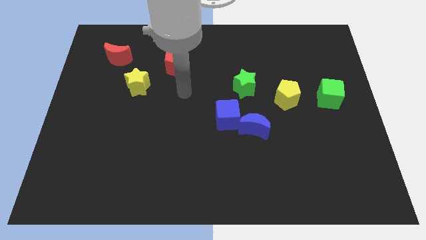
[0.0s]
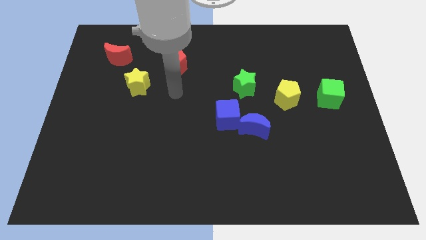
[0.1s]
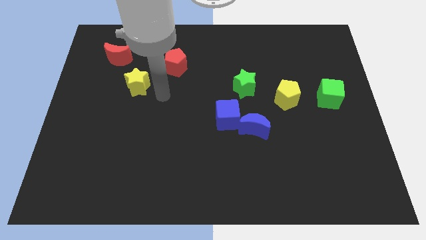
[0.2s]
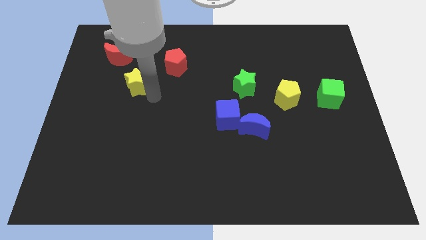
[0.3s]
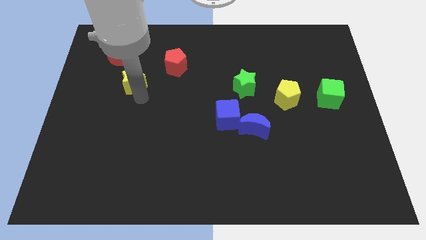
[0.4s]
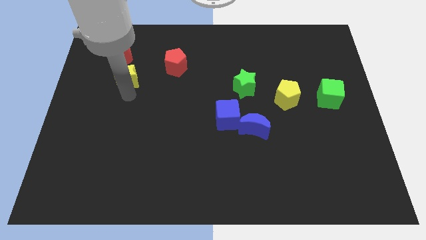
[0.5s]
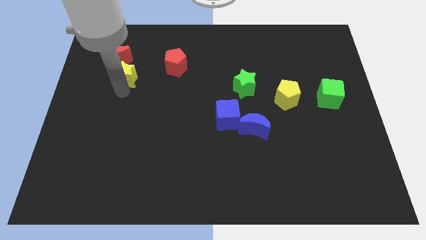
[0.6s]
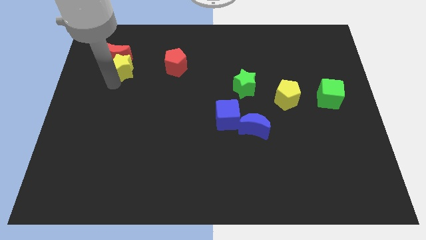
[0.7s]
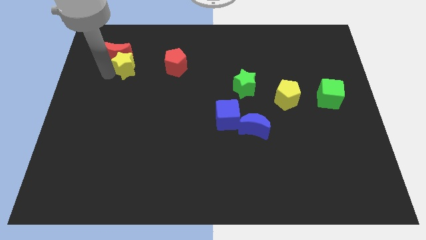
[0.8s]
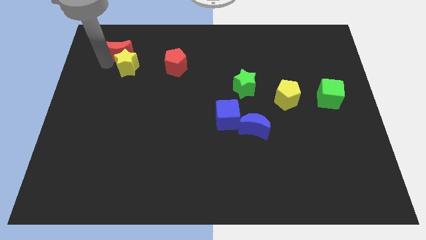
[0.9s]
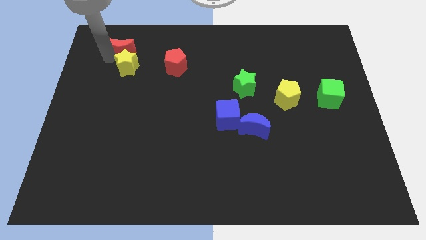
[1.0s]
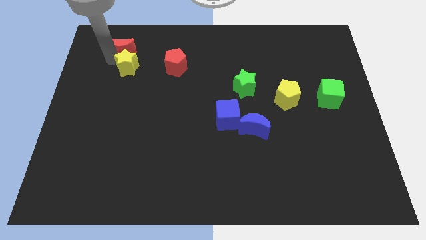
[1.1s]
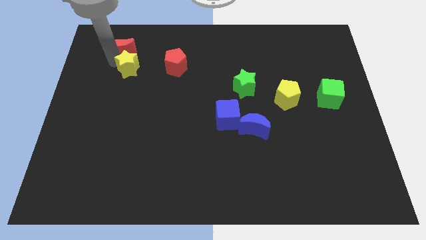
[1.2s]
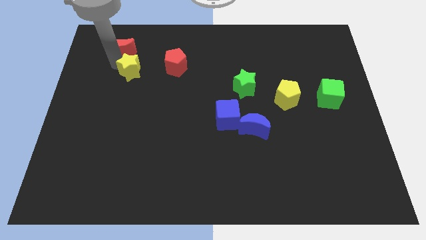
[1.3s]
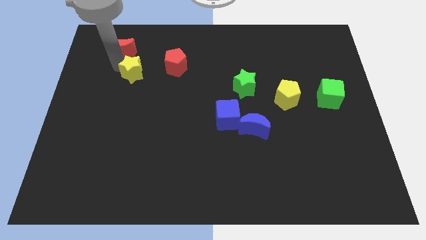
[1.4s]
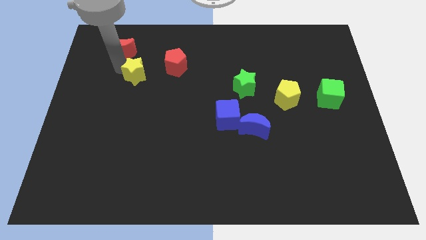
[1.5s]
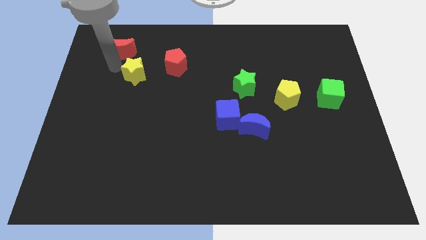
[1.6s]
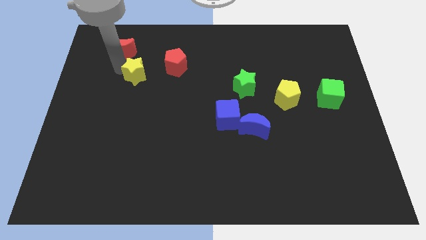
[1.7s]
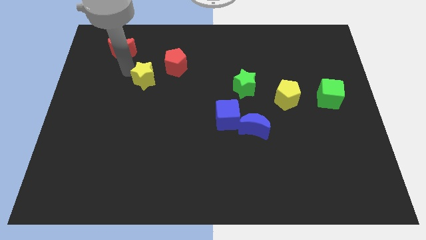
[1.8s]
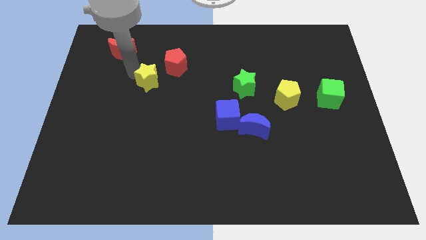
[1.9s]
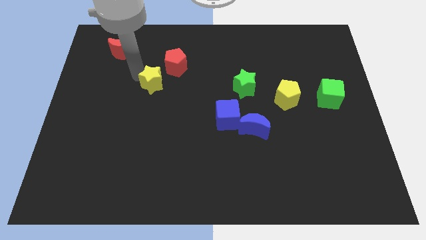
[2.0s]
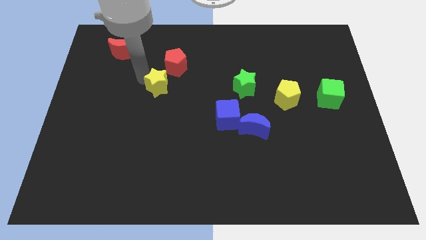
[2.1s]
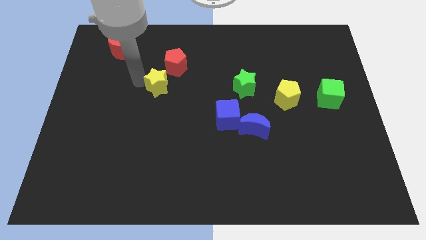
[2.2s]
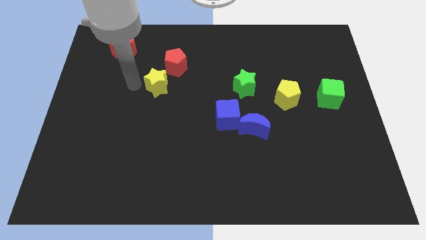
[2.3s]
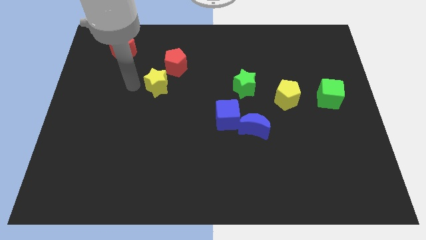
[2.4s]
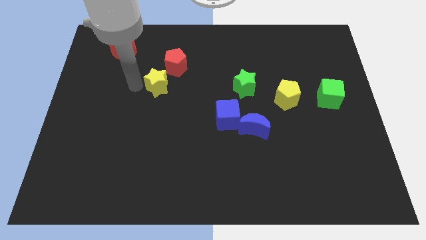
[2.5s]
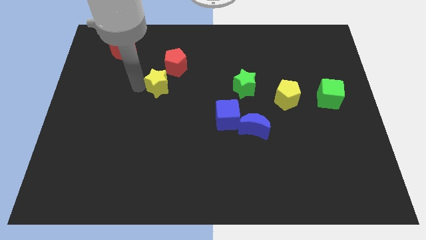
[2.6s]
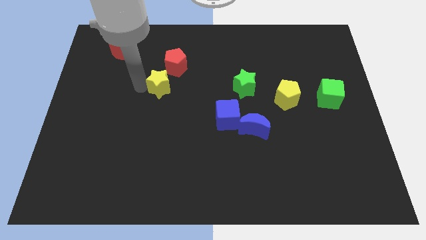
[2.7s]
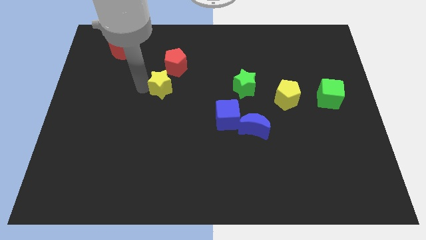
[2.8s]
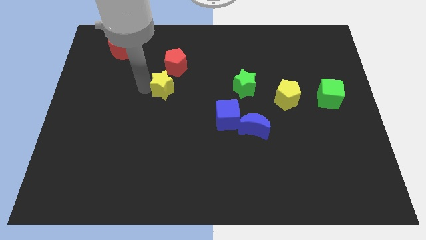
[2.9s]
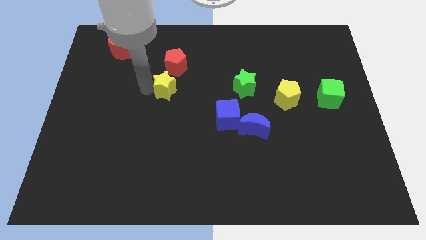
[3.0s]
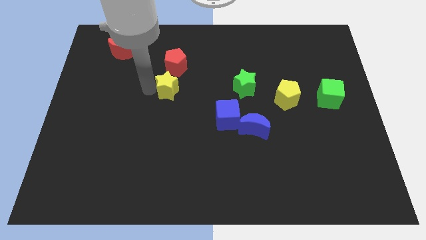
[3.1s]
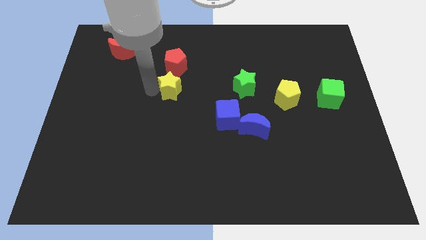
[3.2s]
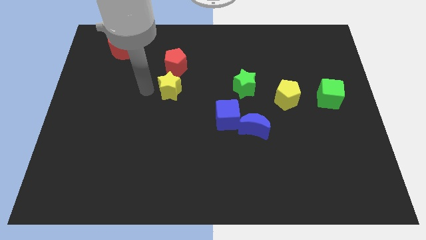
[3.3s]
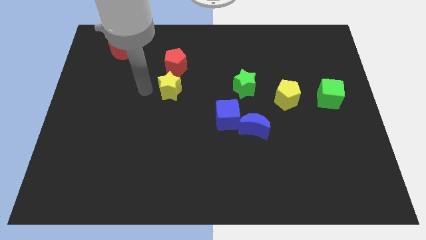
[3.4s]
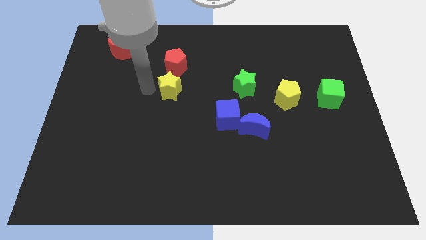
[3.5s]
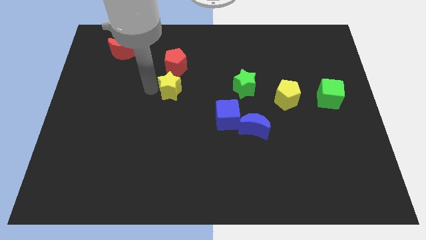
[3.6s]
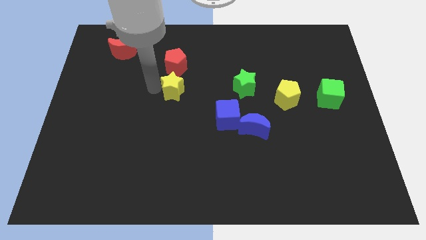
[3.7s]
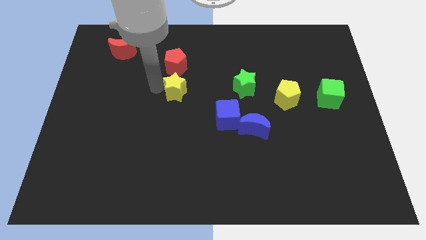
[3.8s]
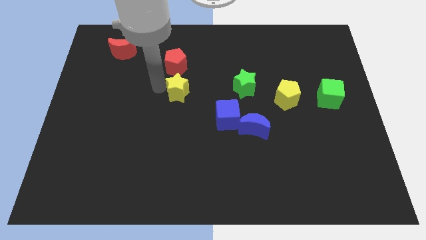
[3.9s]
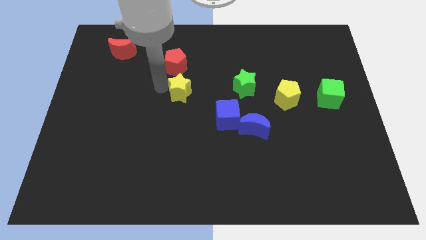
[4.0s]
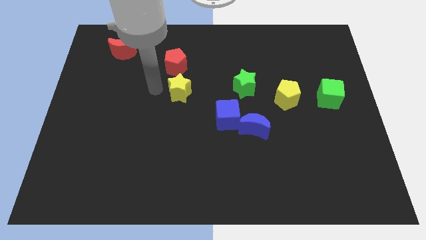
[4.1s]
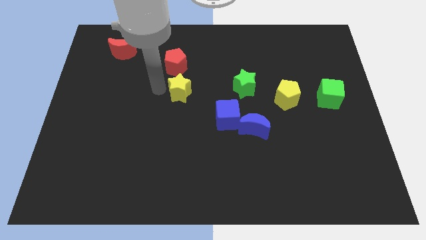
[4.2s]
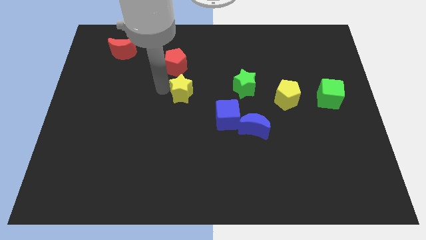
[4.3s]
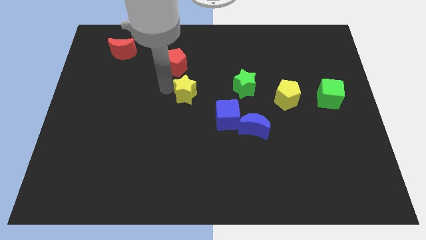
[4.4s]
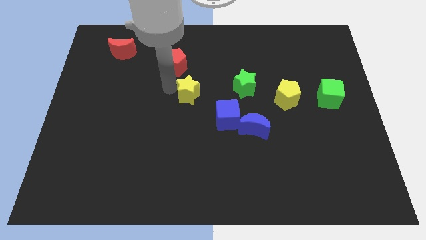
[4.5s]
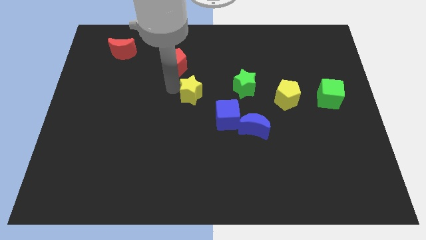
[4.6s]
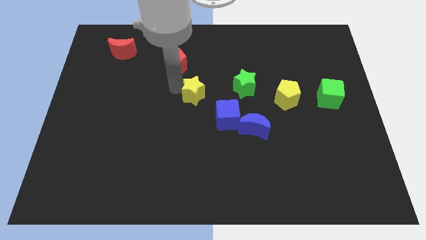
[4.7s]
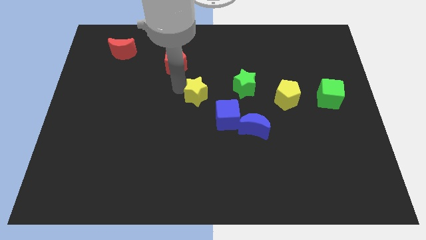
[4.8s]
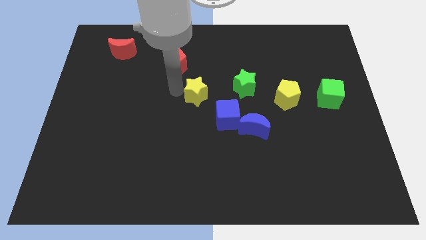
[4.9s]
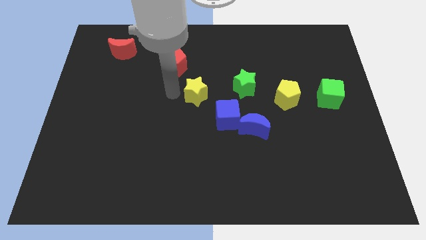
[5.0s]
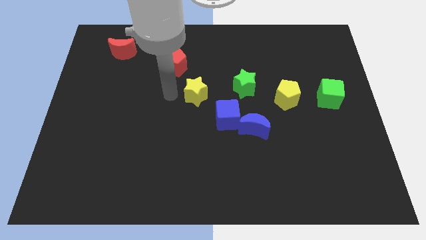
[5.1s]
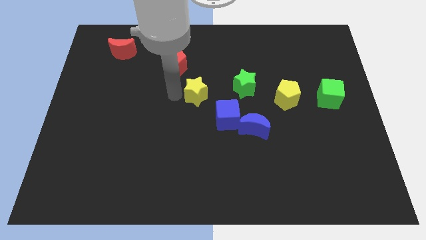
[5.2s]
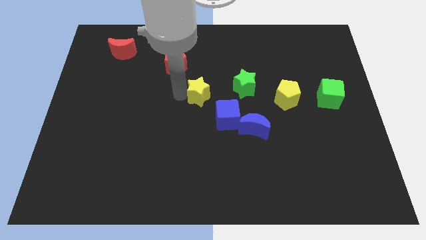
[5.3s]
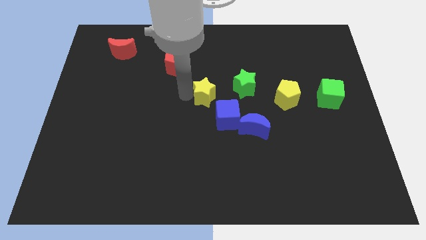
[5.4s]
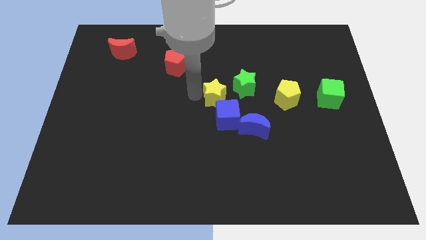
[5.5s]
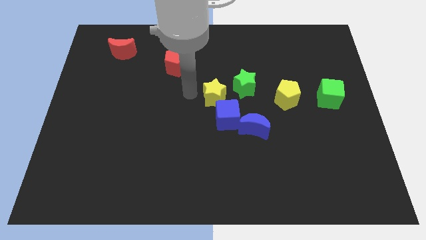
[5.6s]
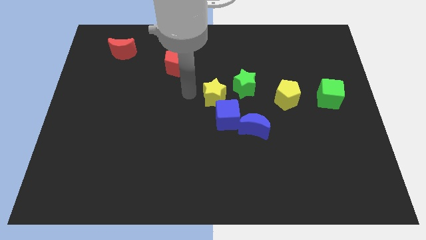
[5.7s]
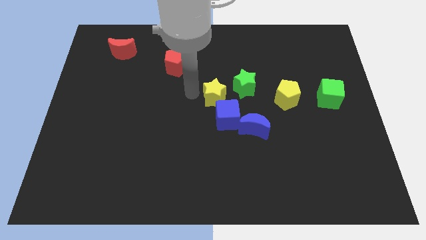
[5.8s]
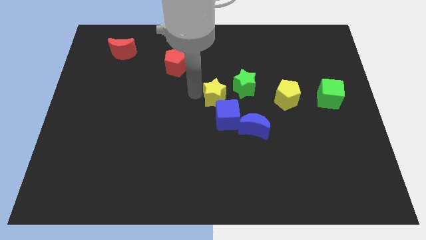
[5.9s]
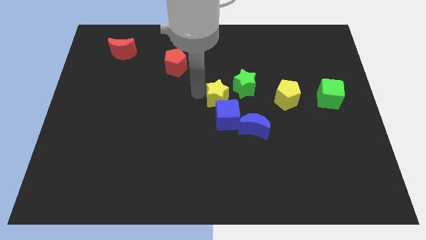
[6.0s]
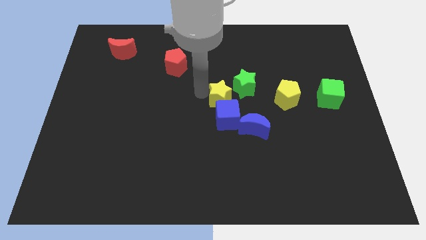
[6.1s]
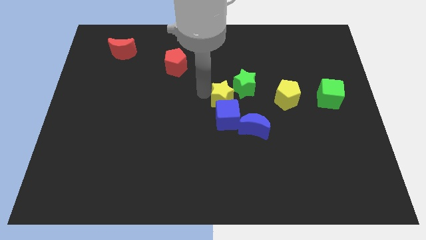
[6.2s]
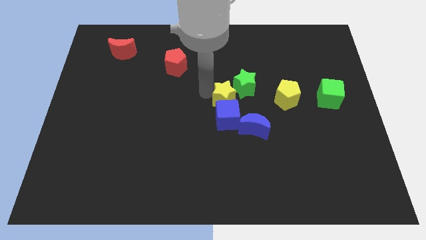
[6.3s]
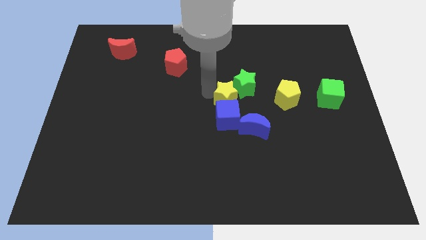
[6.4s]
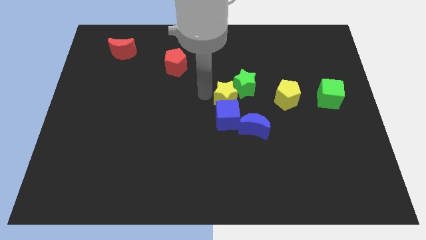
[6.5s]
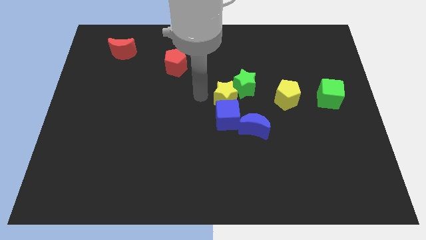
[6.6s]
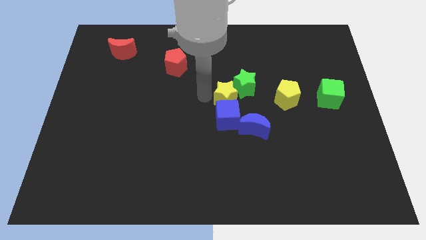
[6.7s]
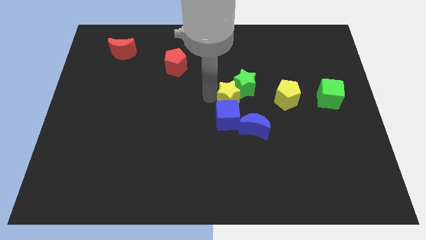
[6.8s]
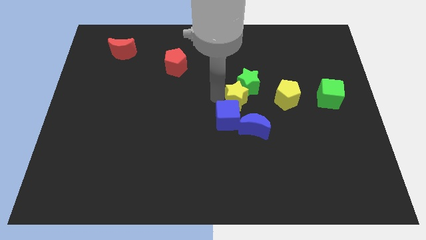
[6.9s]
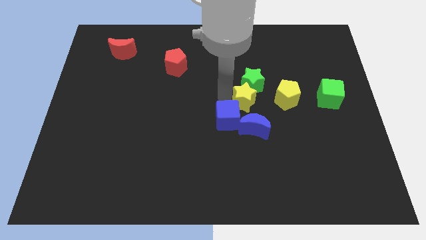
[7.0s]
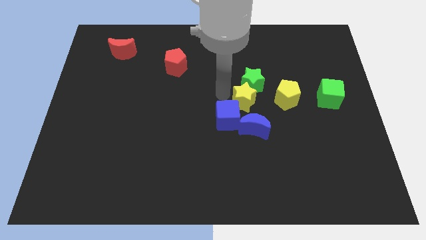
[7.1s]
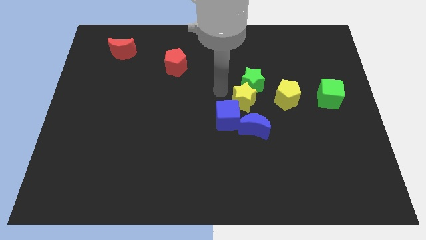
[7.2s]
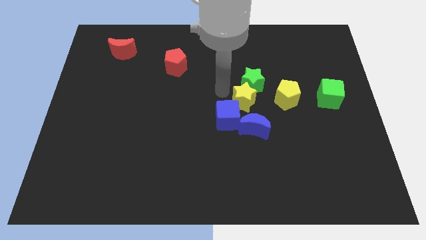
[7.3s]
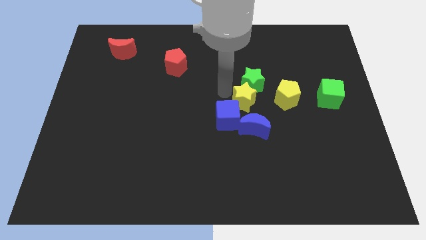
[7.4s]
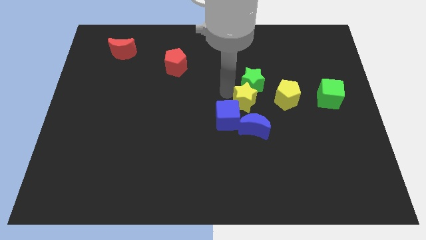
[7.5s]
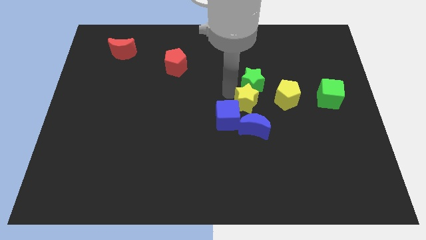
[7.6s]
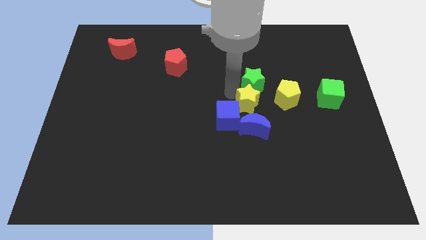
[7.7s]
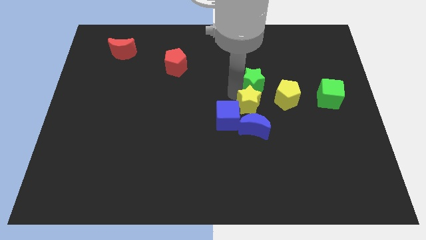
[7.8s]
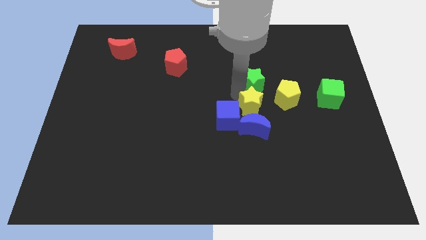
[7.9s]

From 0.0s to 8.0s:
put the yellow star to the top right of the blue moon

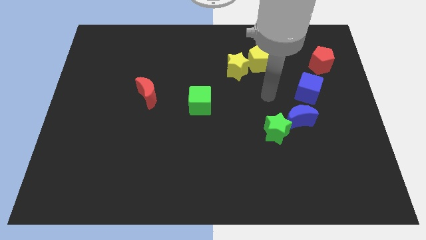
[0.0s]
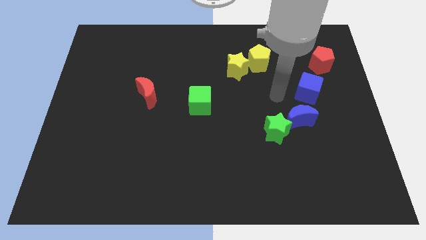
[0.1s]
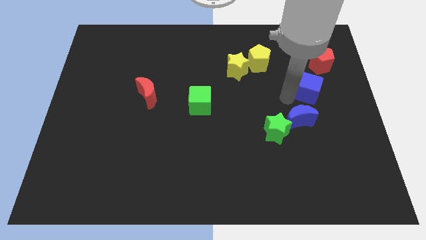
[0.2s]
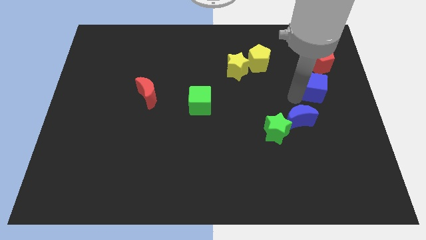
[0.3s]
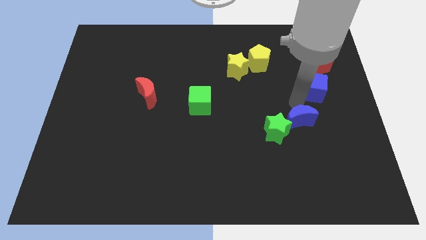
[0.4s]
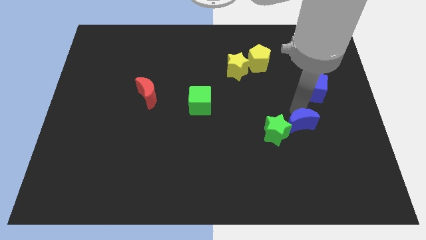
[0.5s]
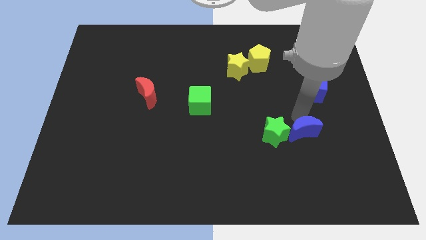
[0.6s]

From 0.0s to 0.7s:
slide the blue moon to the bottom right of the green star
